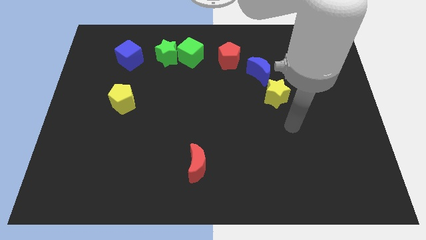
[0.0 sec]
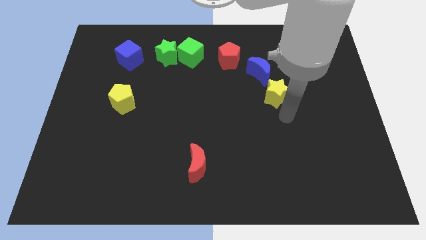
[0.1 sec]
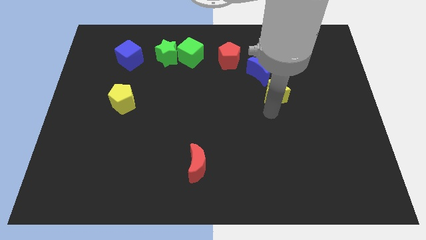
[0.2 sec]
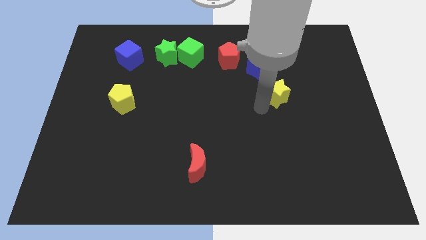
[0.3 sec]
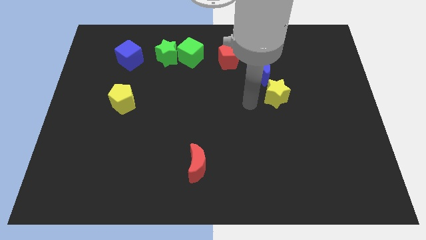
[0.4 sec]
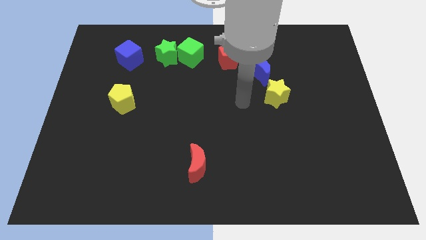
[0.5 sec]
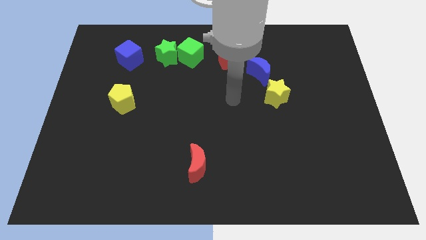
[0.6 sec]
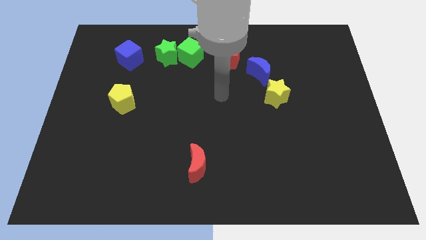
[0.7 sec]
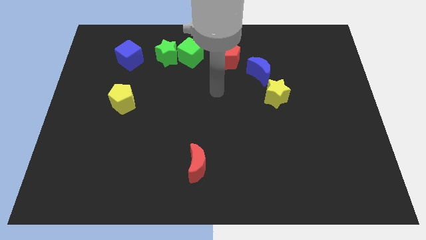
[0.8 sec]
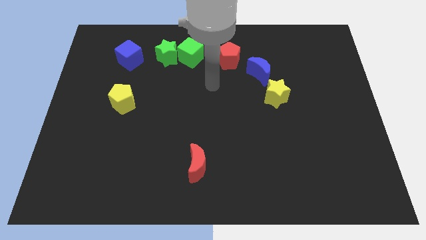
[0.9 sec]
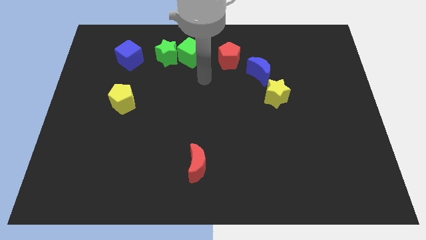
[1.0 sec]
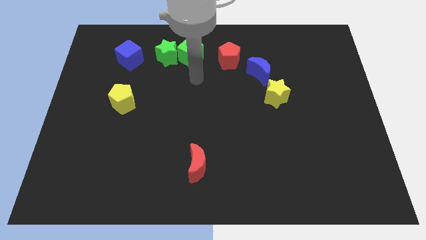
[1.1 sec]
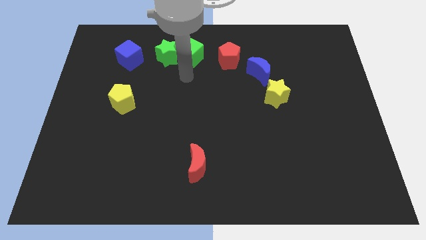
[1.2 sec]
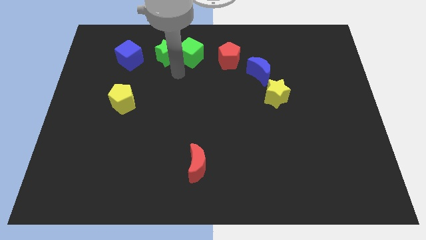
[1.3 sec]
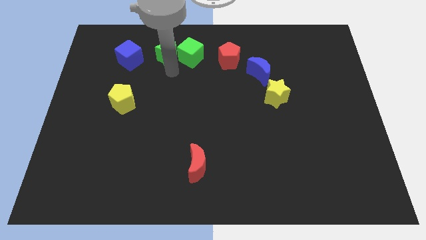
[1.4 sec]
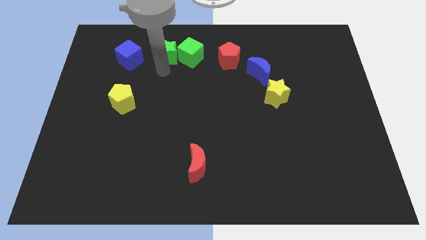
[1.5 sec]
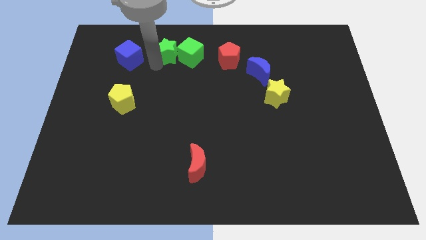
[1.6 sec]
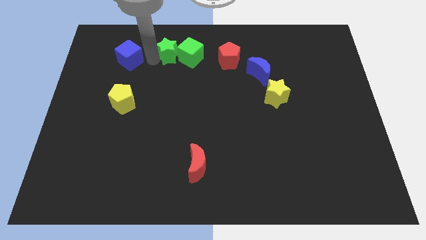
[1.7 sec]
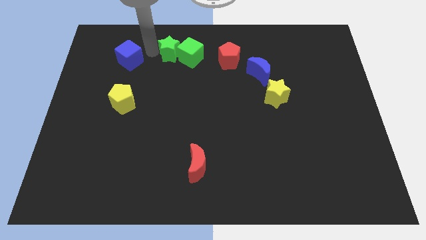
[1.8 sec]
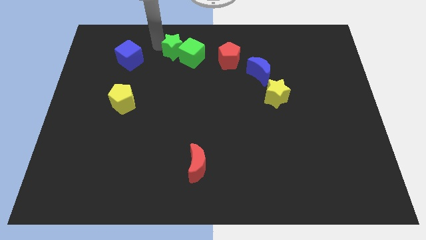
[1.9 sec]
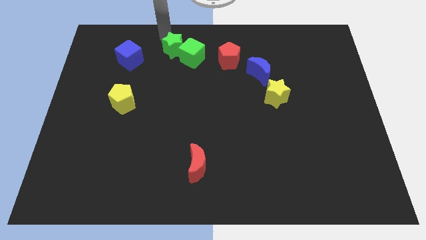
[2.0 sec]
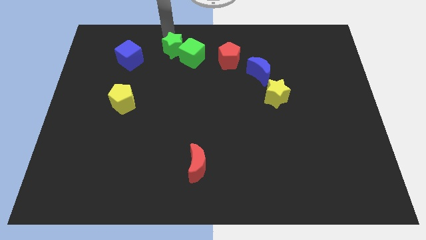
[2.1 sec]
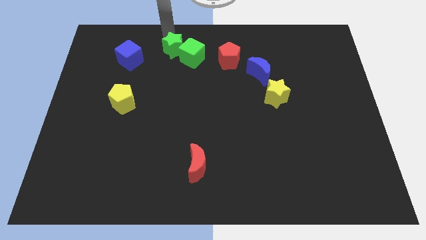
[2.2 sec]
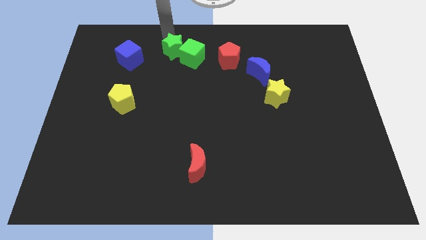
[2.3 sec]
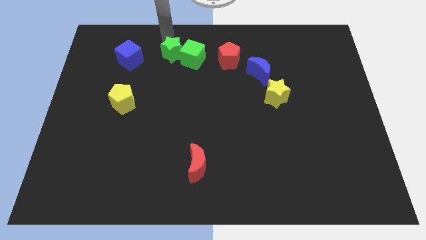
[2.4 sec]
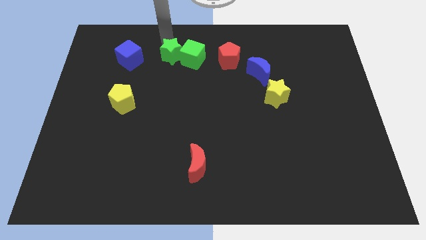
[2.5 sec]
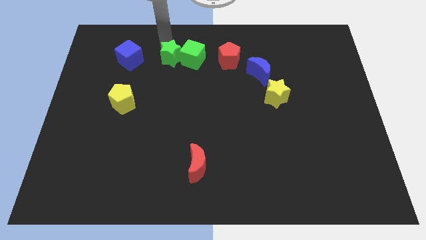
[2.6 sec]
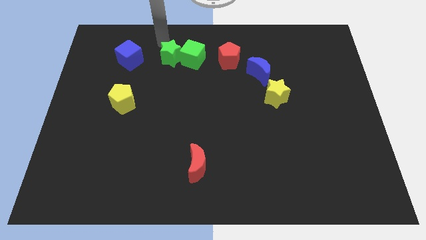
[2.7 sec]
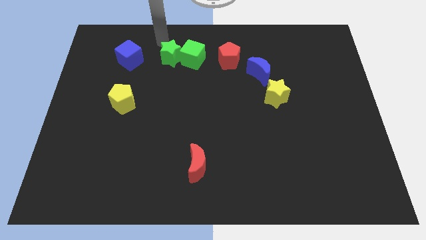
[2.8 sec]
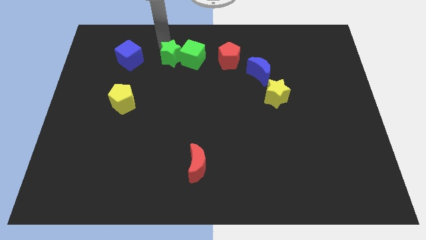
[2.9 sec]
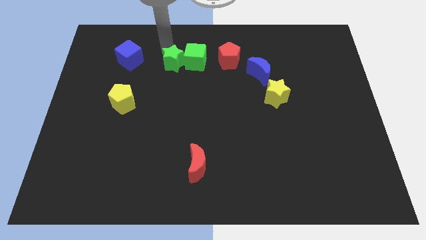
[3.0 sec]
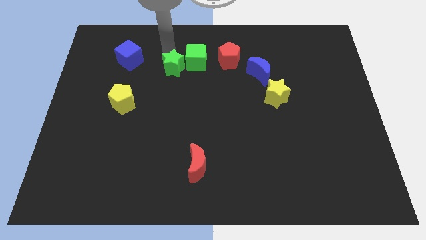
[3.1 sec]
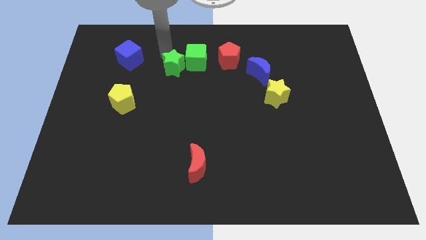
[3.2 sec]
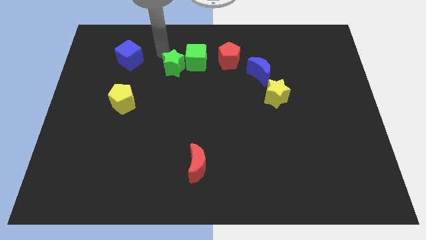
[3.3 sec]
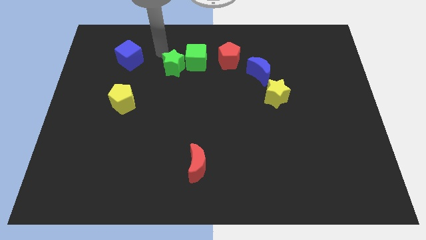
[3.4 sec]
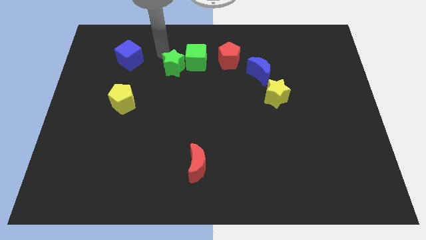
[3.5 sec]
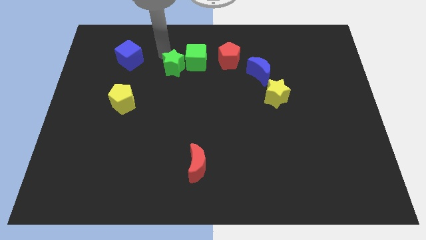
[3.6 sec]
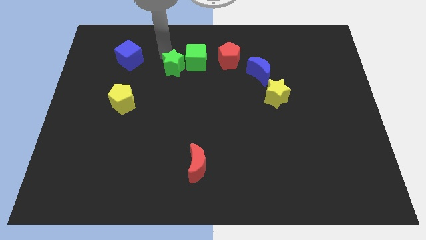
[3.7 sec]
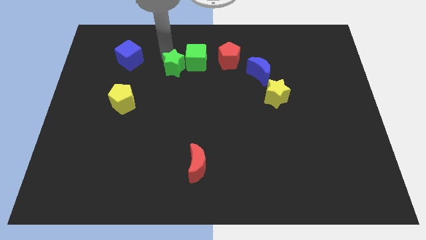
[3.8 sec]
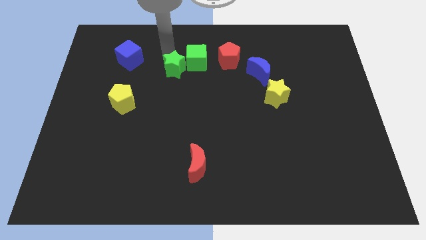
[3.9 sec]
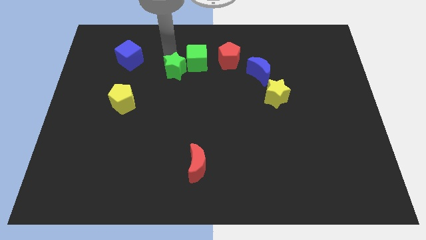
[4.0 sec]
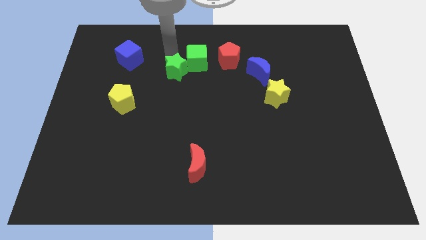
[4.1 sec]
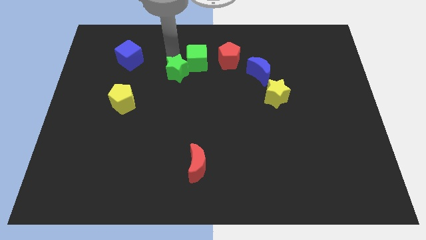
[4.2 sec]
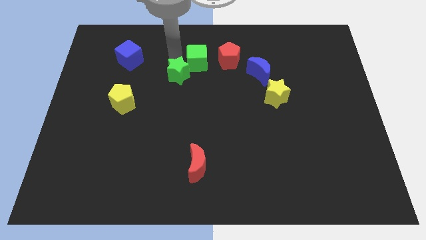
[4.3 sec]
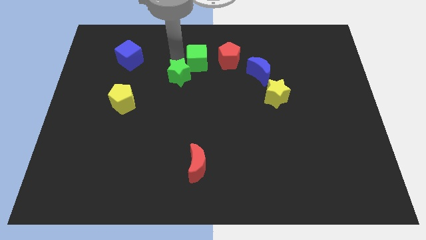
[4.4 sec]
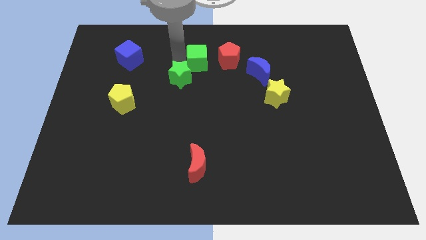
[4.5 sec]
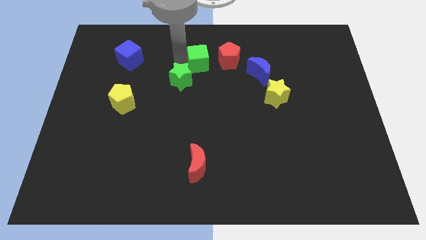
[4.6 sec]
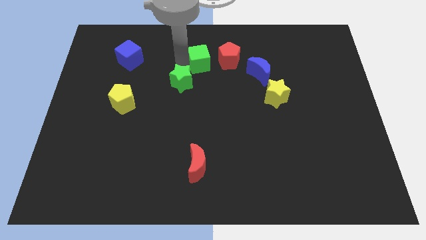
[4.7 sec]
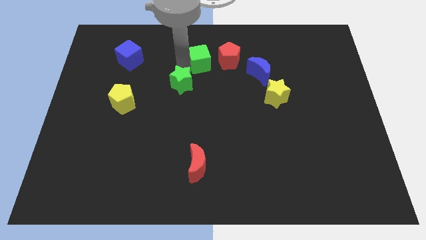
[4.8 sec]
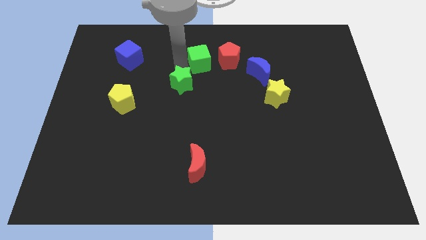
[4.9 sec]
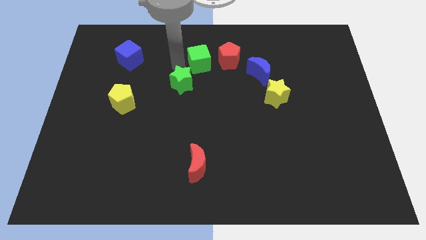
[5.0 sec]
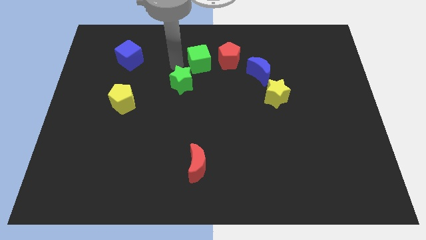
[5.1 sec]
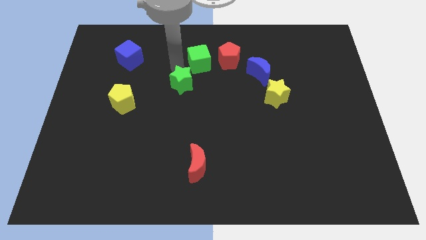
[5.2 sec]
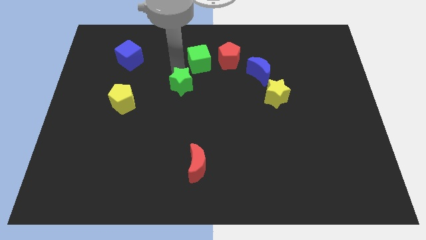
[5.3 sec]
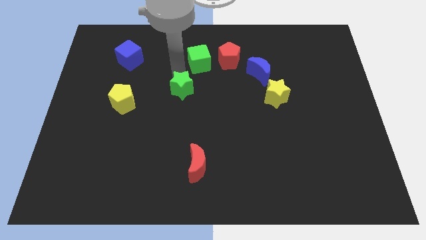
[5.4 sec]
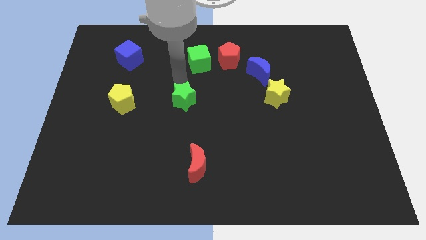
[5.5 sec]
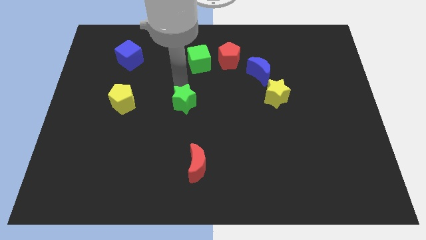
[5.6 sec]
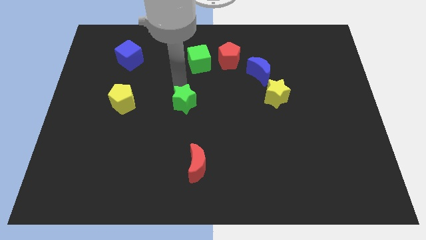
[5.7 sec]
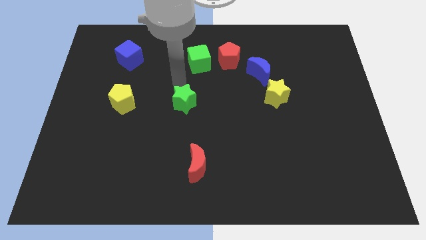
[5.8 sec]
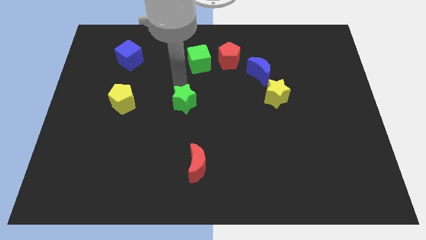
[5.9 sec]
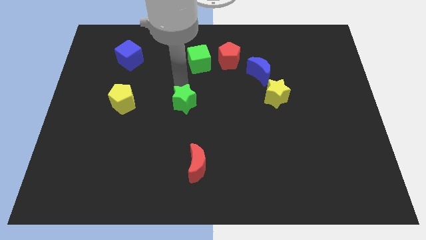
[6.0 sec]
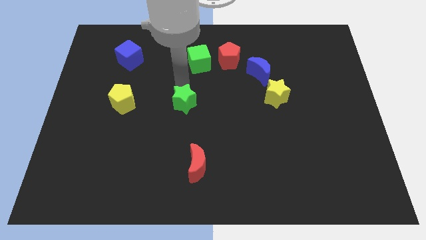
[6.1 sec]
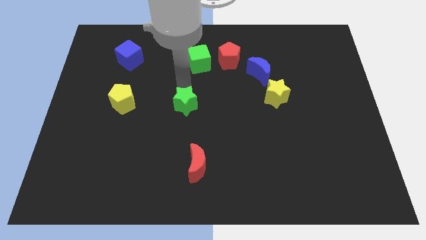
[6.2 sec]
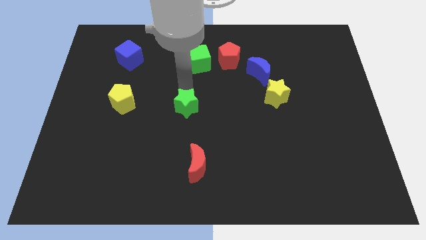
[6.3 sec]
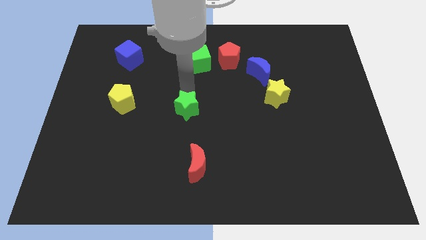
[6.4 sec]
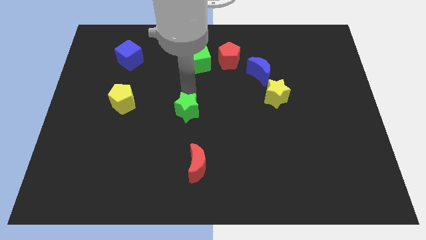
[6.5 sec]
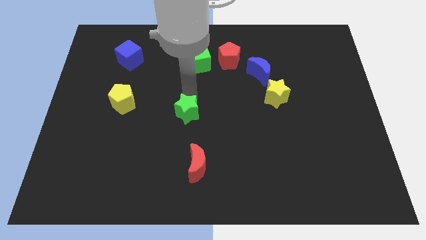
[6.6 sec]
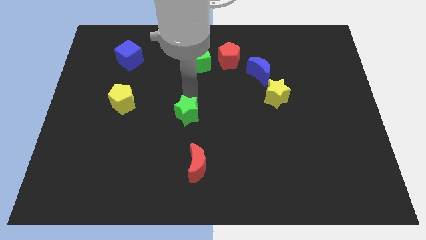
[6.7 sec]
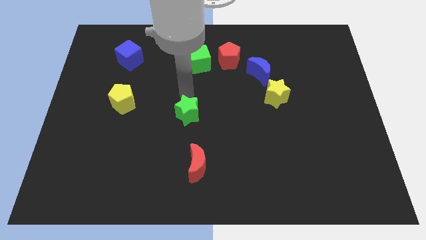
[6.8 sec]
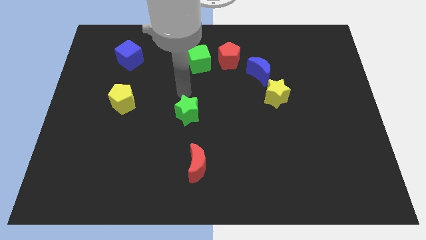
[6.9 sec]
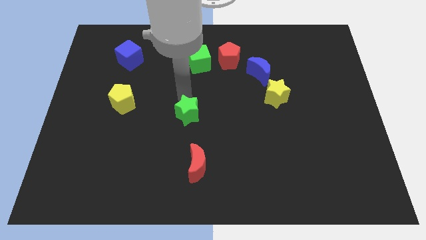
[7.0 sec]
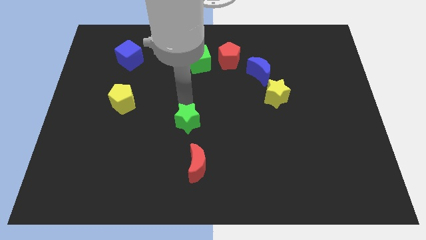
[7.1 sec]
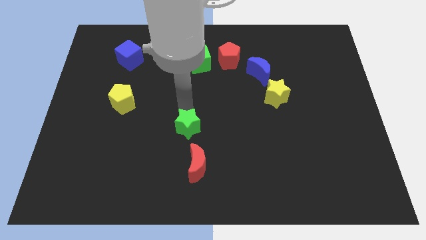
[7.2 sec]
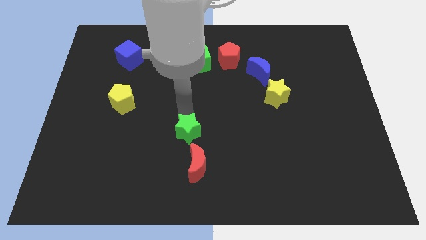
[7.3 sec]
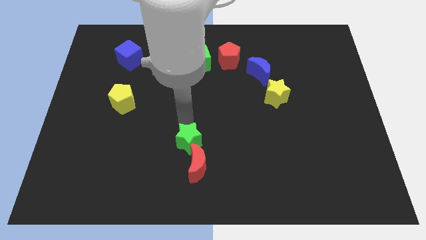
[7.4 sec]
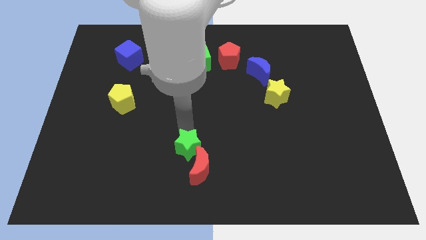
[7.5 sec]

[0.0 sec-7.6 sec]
slide the green star to the red moon
